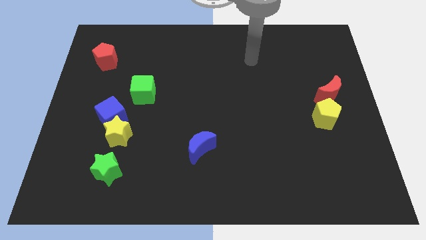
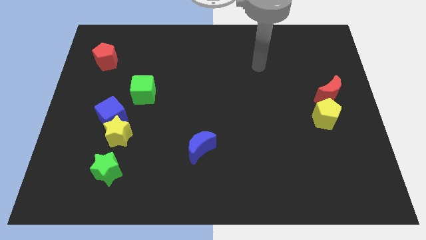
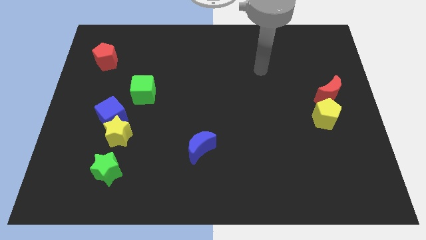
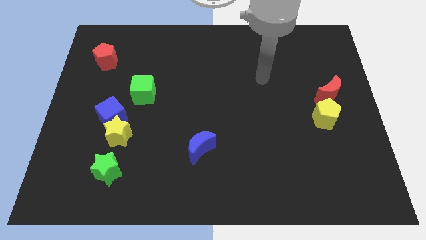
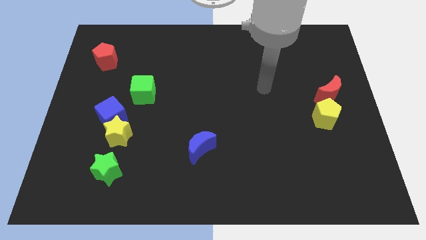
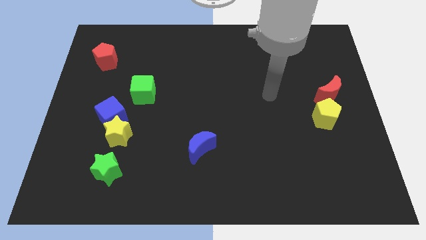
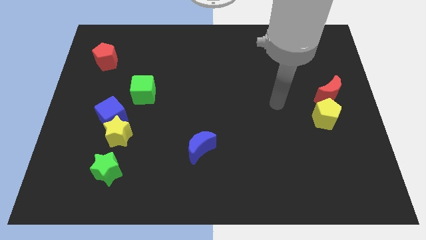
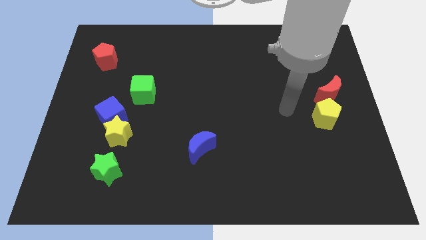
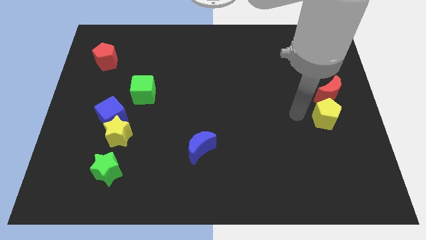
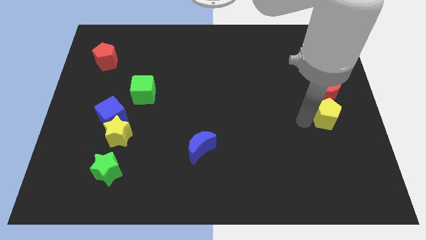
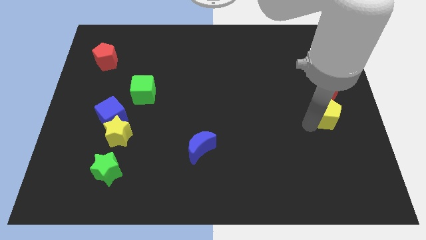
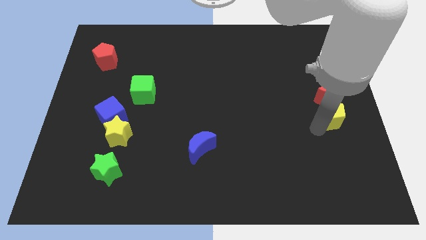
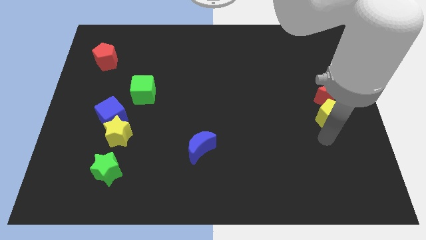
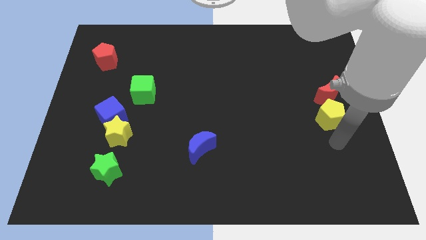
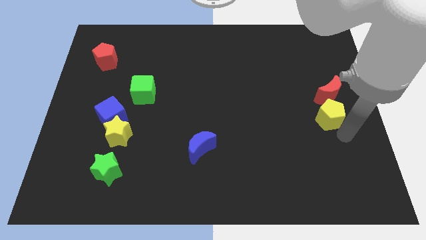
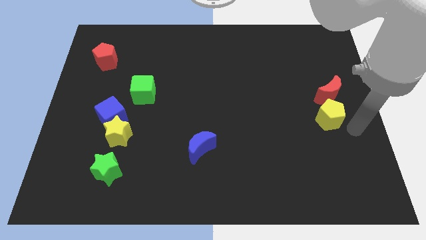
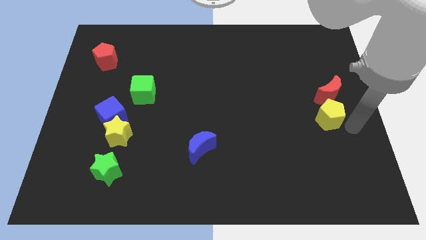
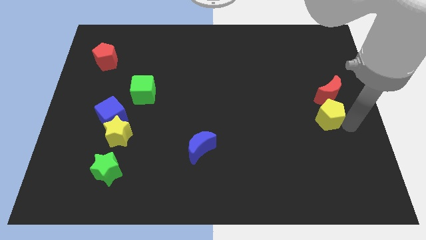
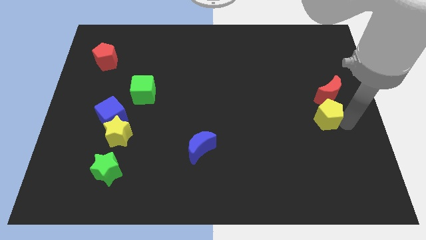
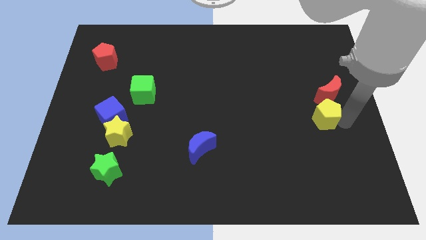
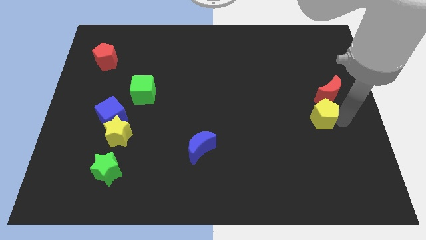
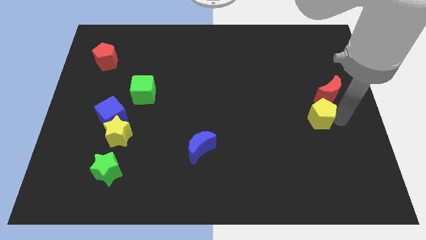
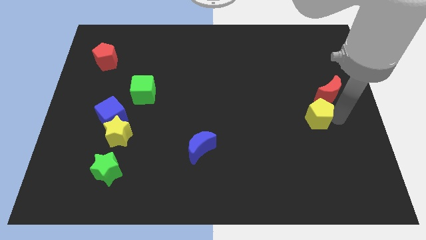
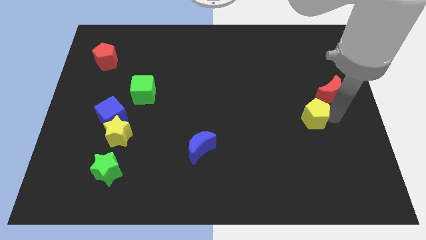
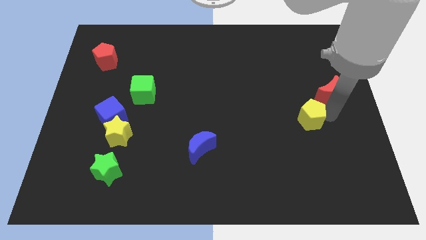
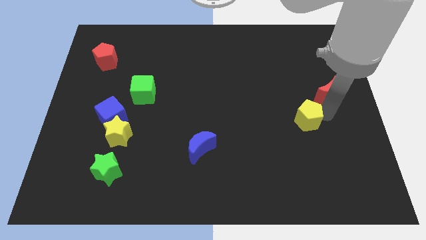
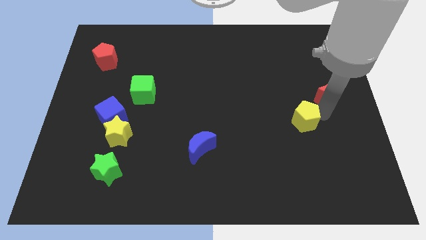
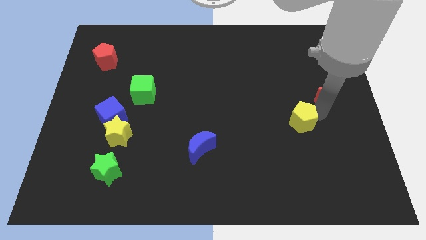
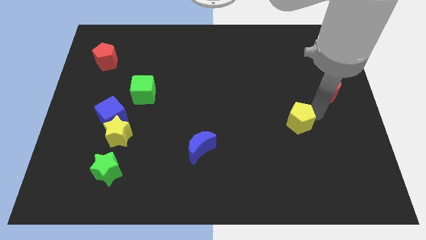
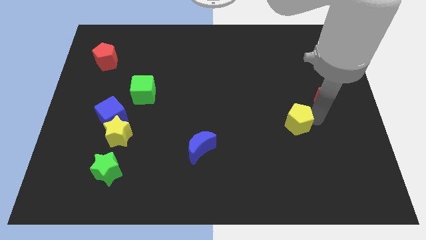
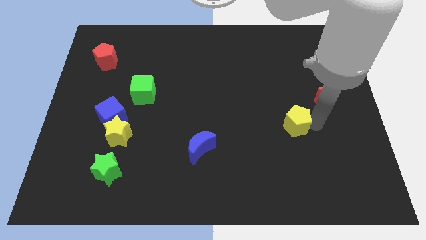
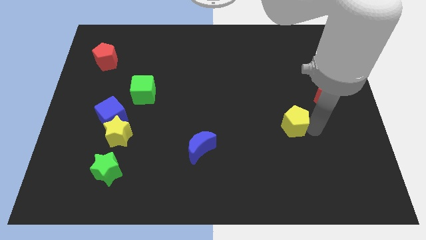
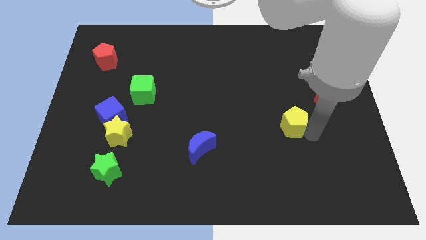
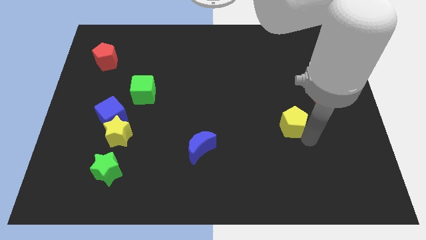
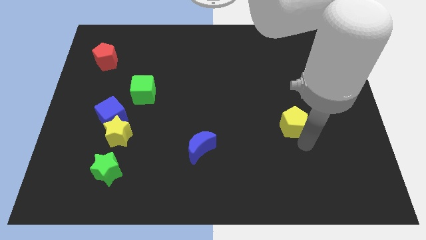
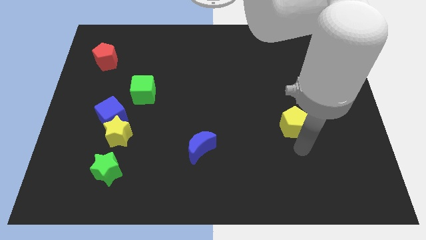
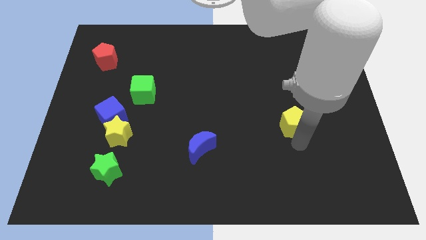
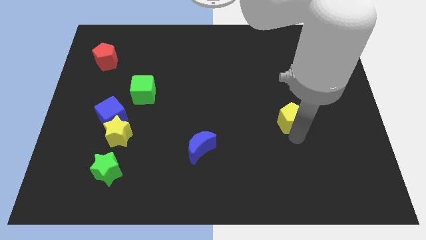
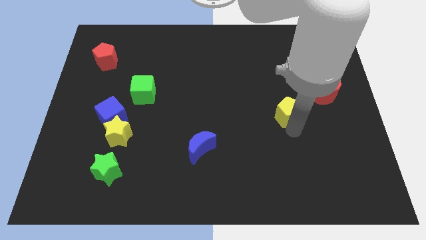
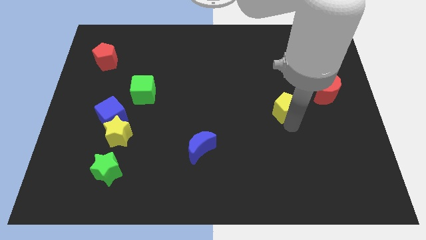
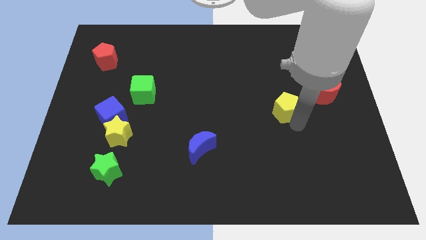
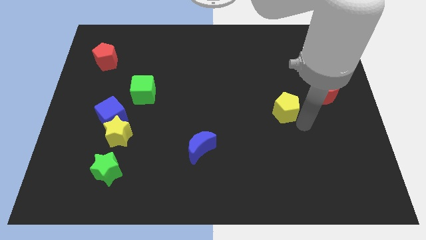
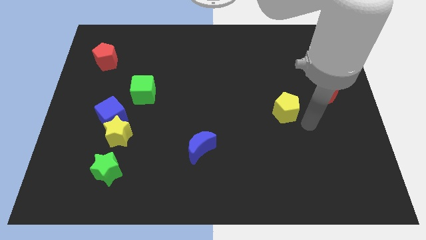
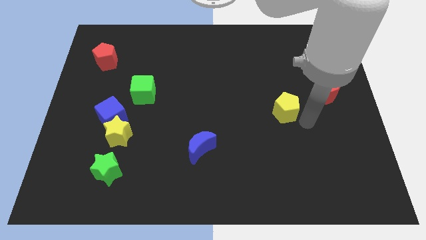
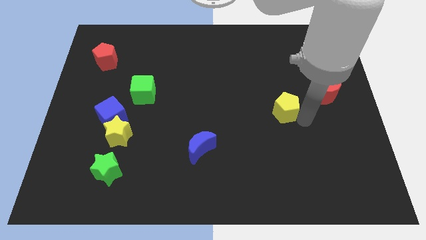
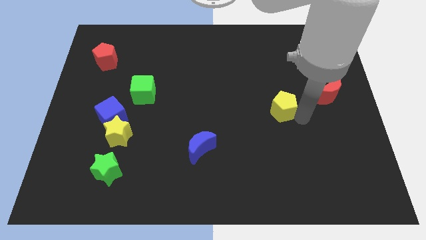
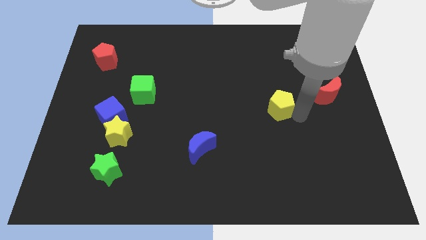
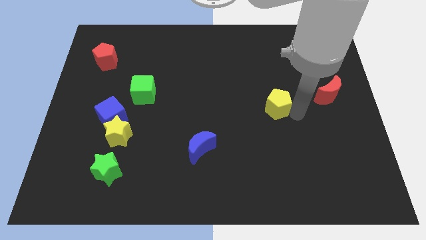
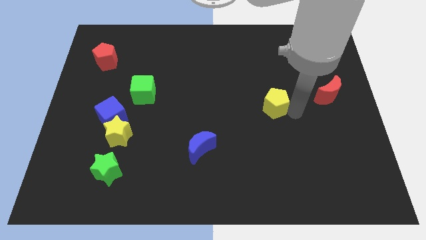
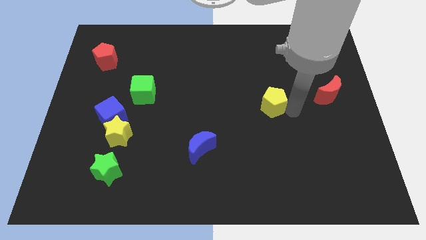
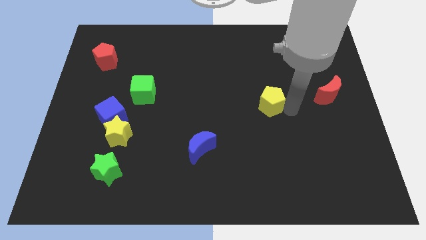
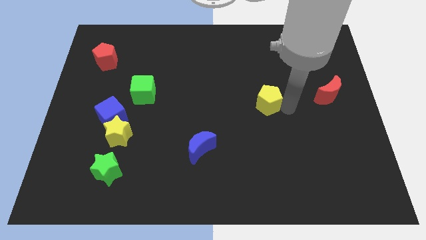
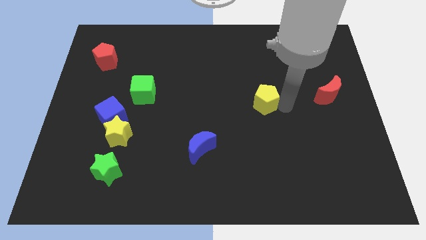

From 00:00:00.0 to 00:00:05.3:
push the yellow pentagon to the middle of the board

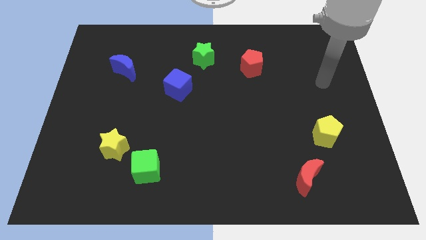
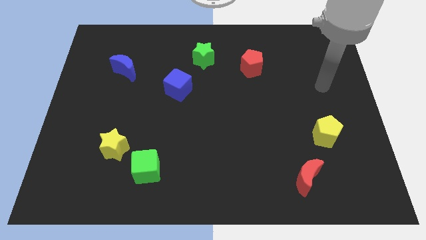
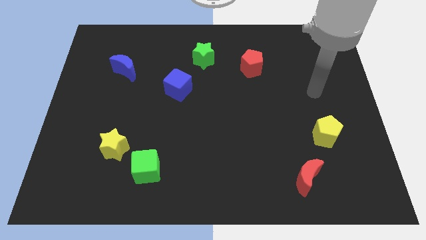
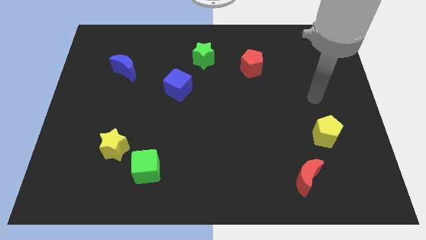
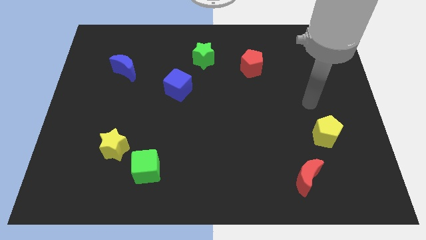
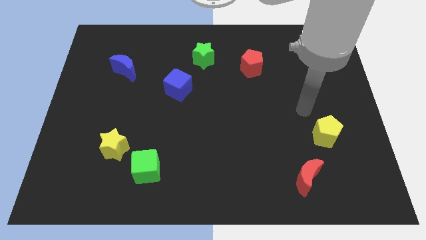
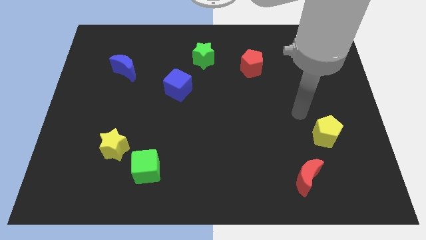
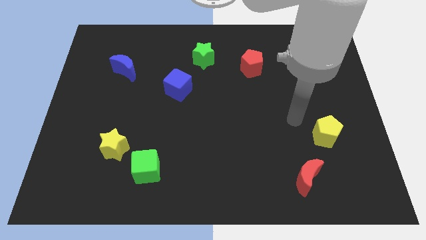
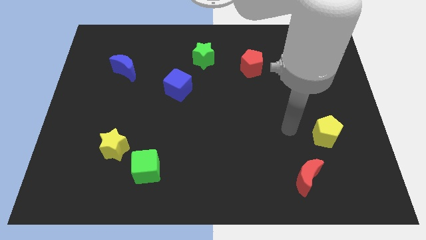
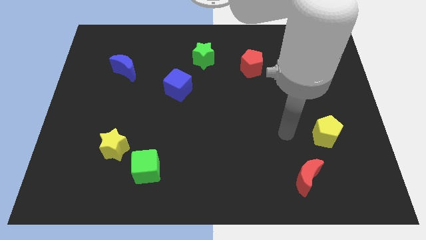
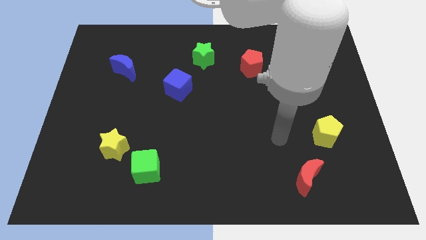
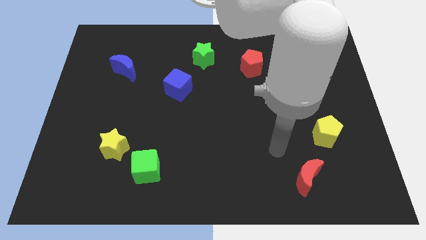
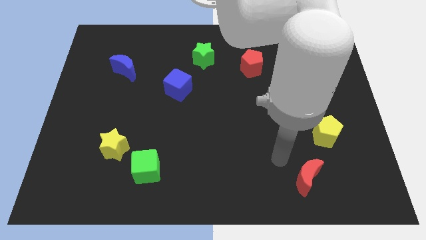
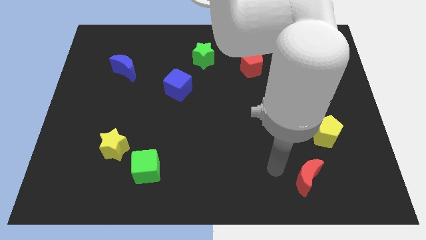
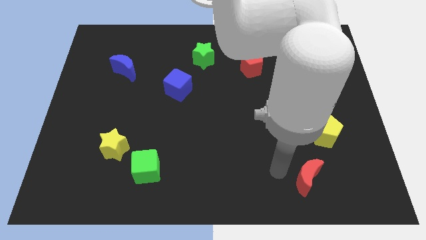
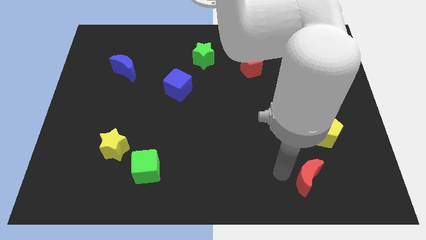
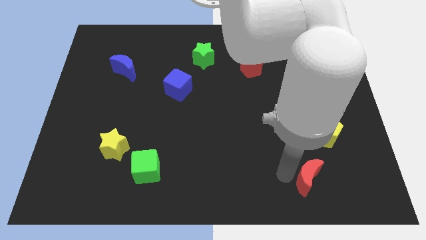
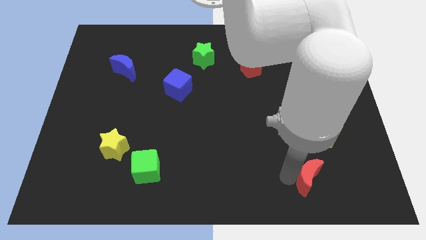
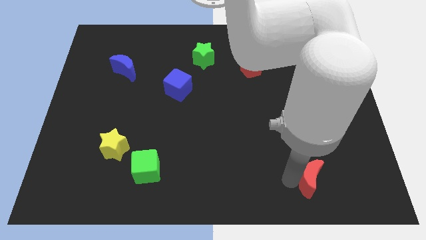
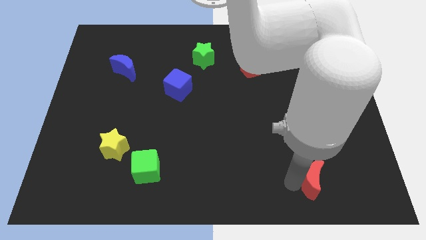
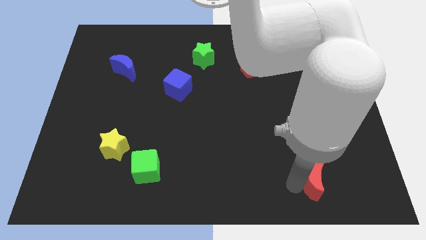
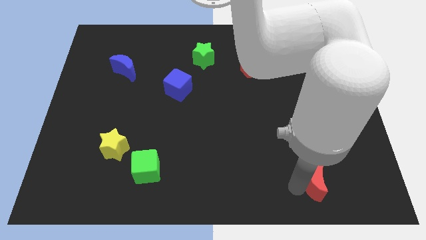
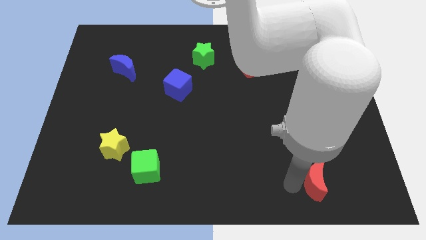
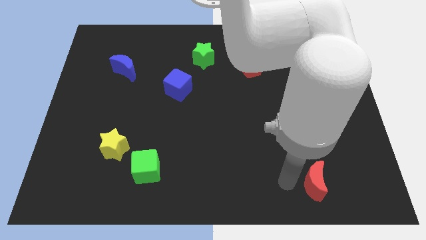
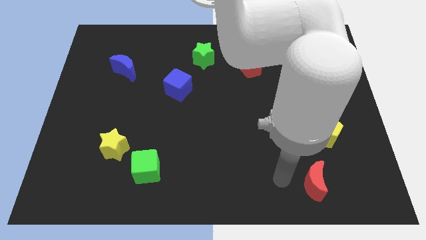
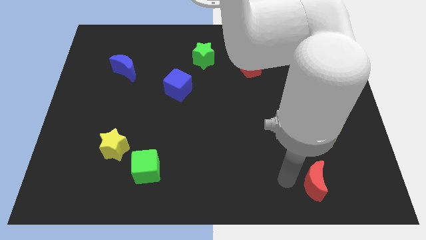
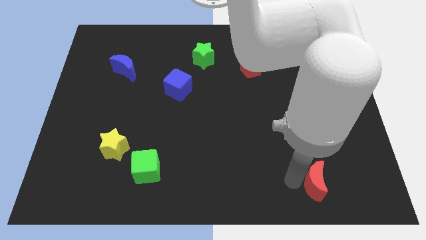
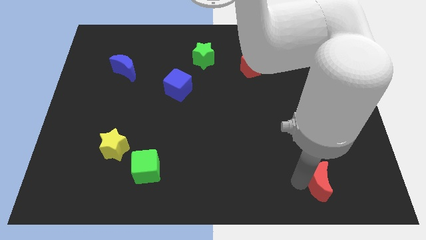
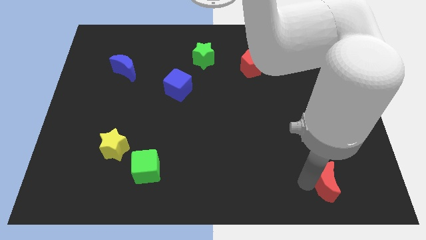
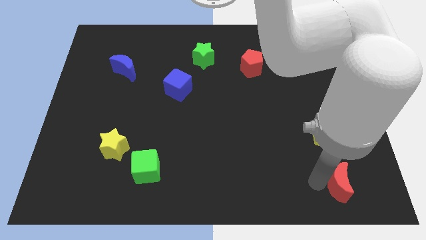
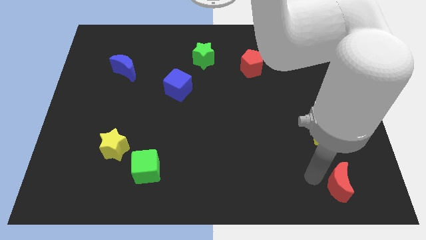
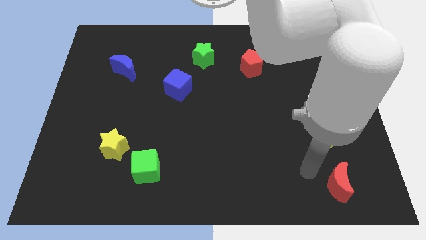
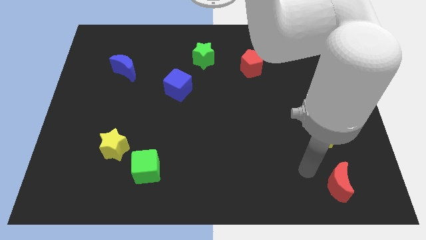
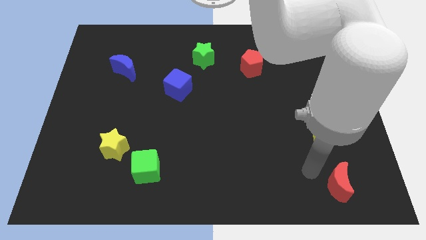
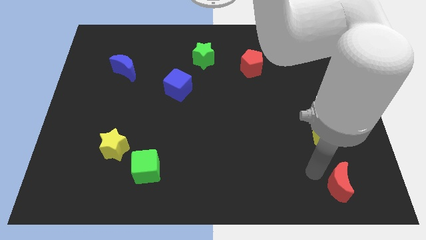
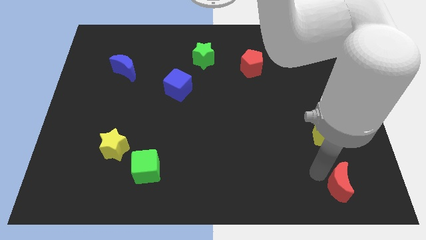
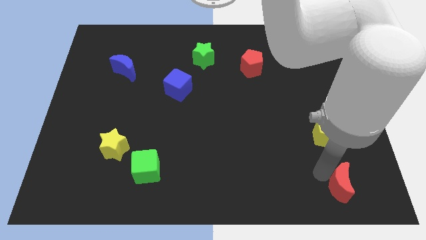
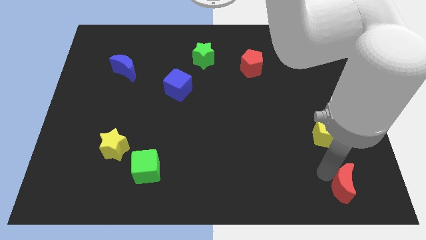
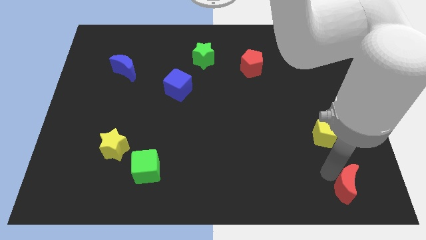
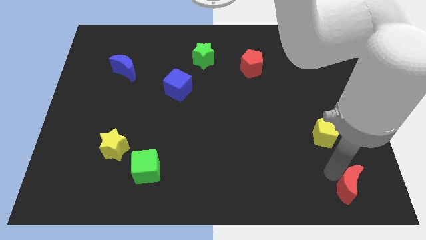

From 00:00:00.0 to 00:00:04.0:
put the red moon to the bottom right corner
